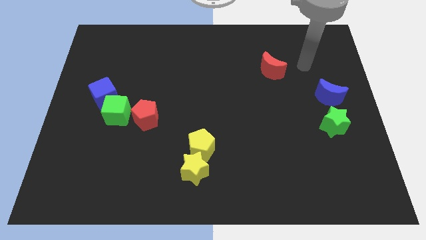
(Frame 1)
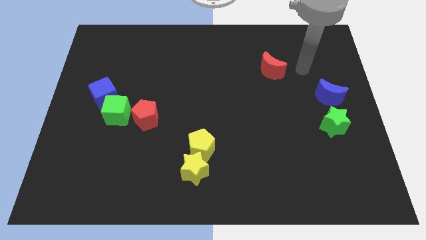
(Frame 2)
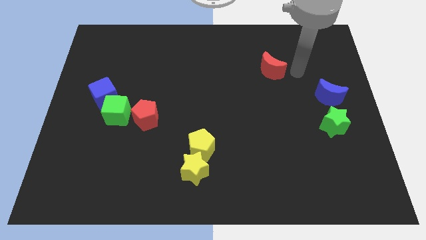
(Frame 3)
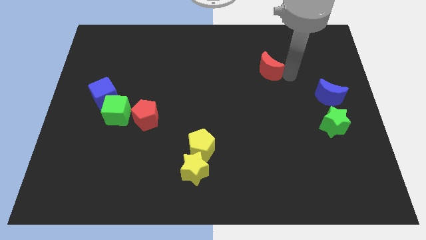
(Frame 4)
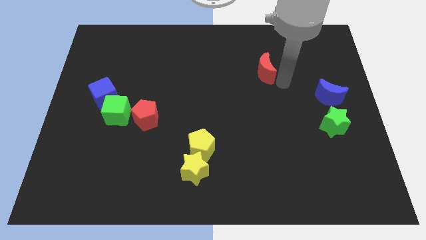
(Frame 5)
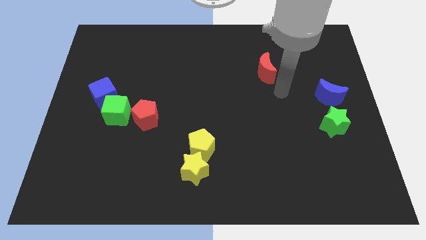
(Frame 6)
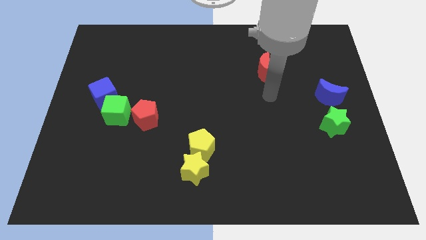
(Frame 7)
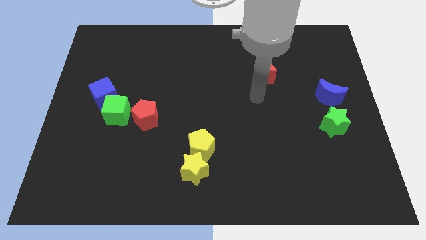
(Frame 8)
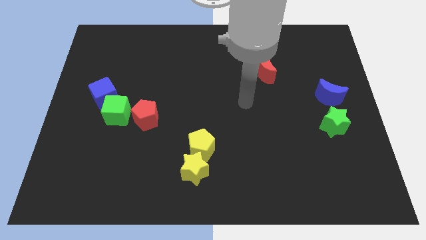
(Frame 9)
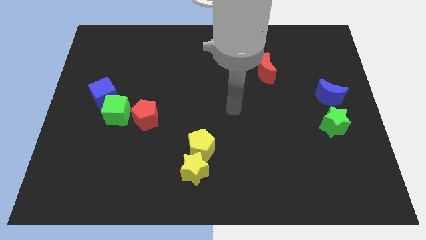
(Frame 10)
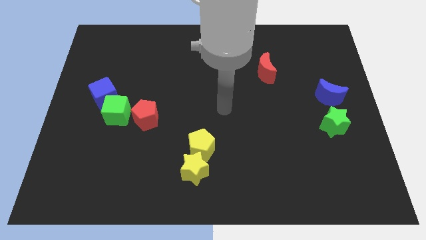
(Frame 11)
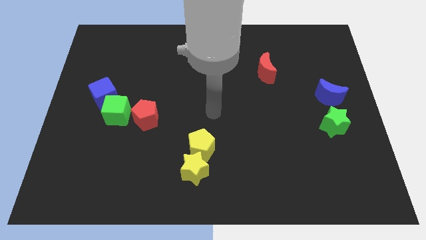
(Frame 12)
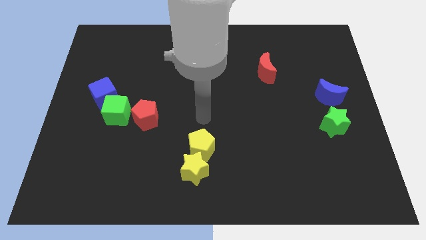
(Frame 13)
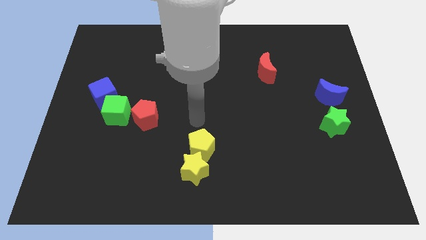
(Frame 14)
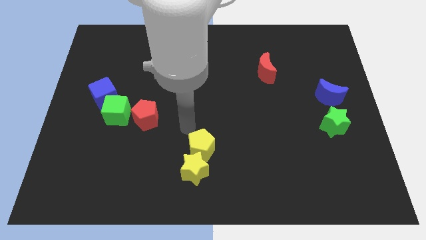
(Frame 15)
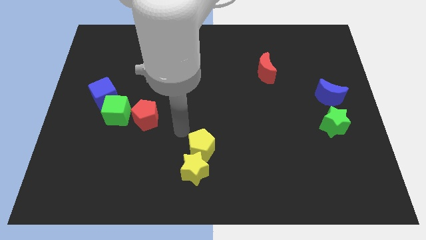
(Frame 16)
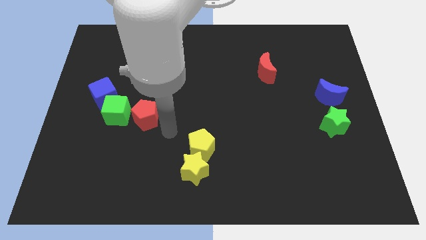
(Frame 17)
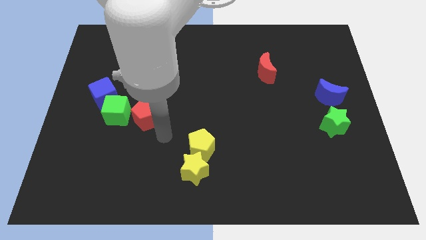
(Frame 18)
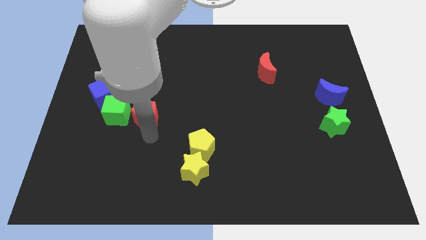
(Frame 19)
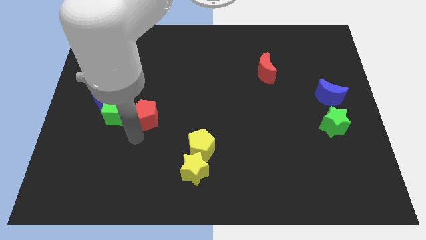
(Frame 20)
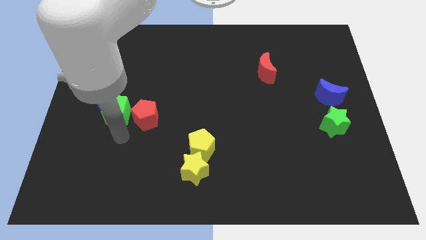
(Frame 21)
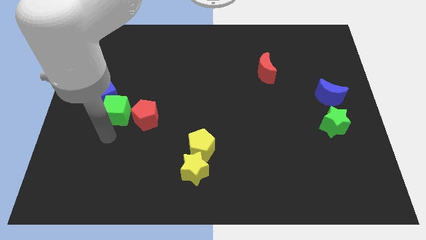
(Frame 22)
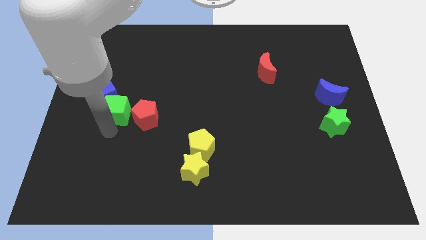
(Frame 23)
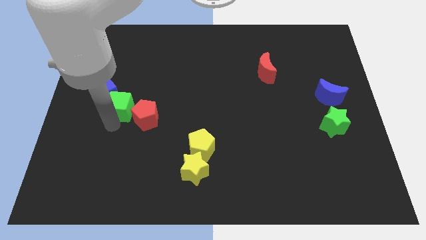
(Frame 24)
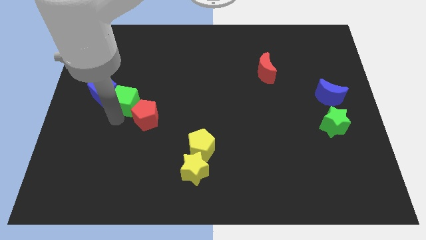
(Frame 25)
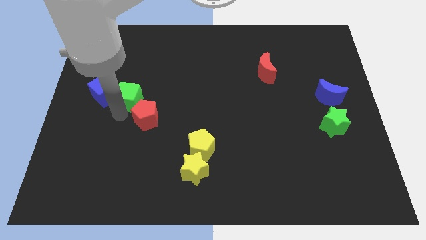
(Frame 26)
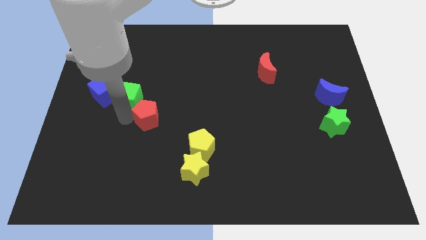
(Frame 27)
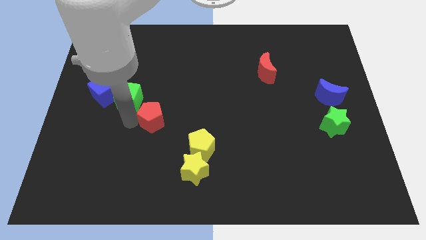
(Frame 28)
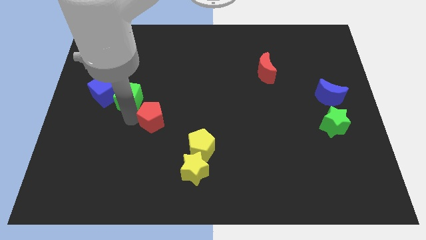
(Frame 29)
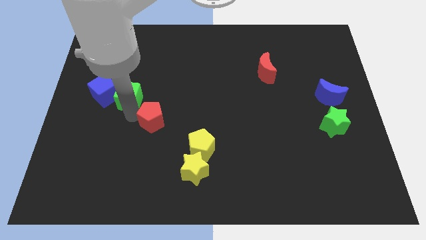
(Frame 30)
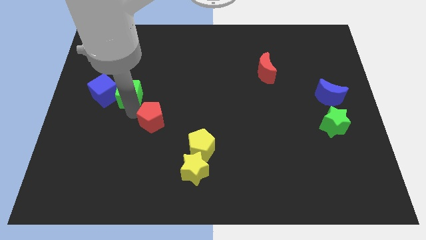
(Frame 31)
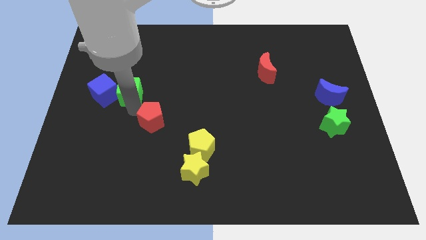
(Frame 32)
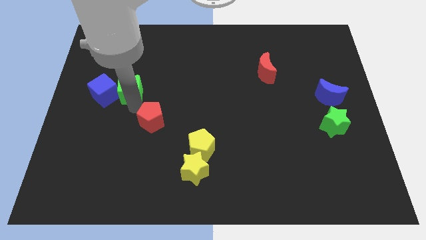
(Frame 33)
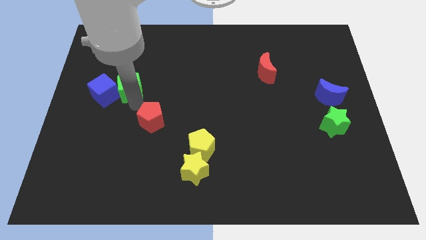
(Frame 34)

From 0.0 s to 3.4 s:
push the green cube slightly up

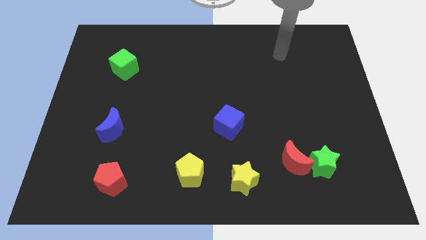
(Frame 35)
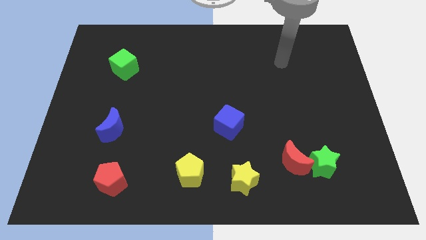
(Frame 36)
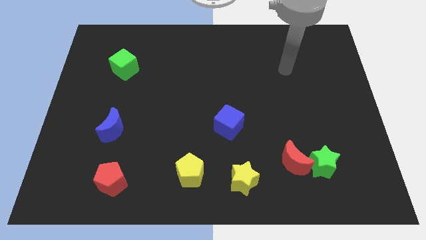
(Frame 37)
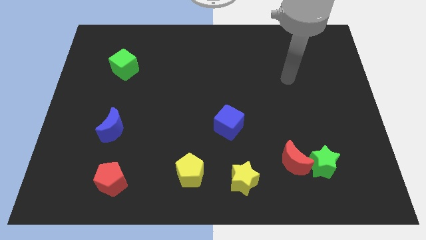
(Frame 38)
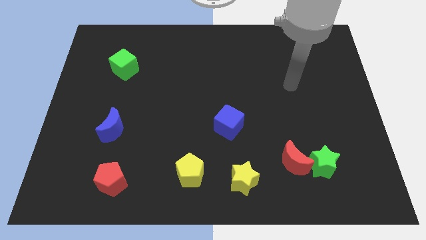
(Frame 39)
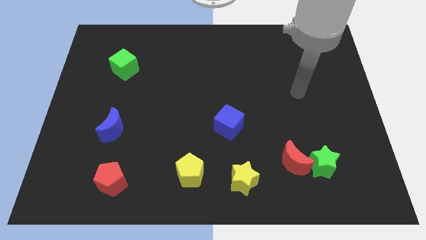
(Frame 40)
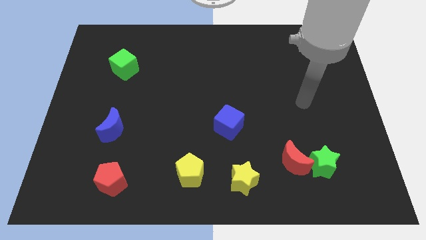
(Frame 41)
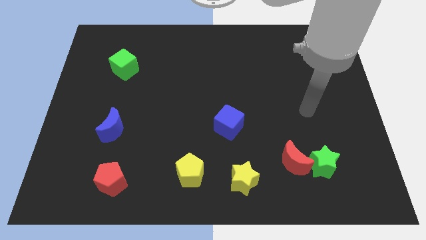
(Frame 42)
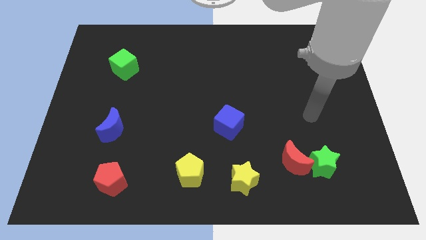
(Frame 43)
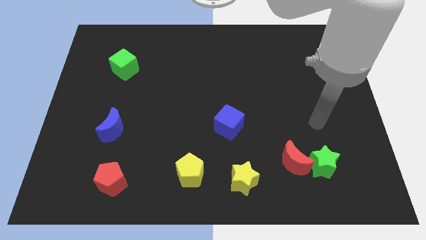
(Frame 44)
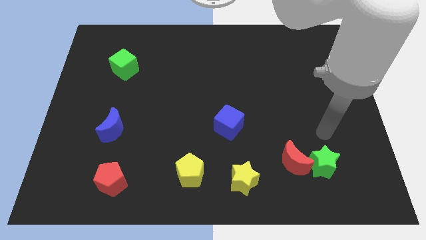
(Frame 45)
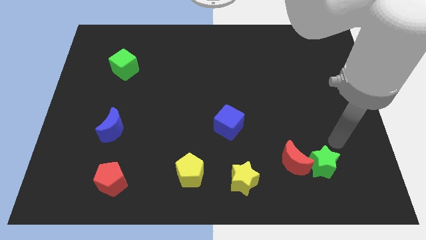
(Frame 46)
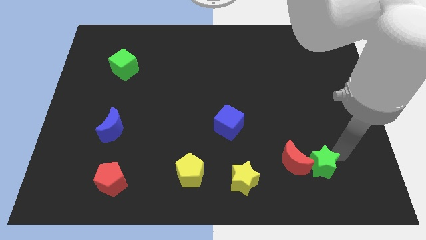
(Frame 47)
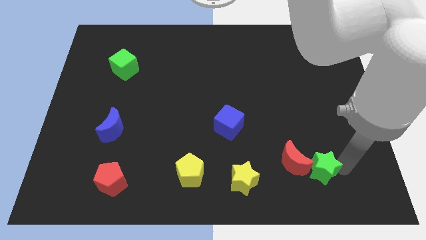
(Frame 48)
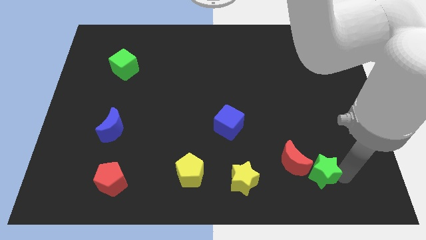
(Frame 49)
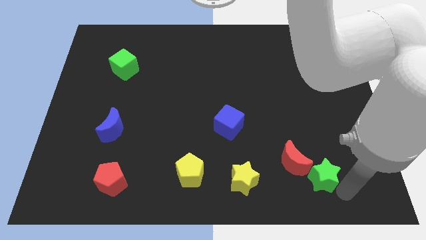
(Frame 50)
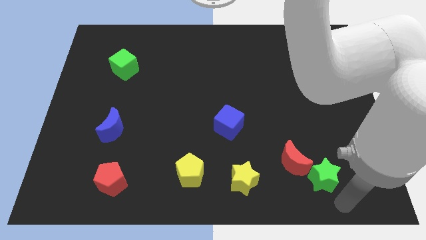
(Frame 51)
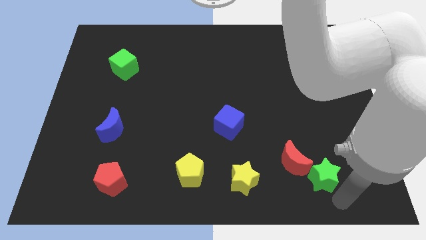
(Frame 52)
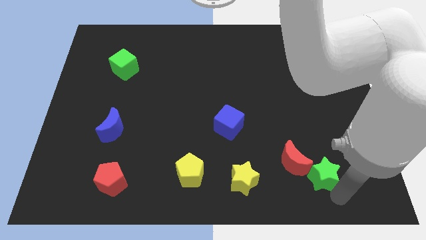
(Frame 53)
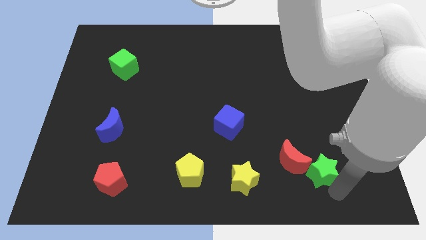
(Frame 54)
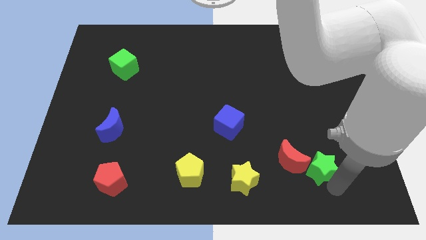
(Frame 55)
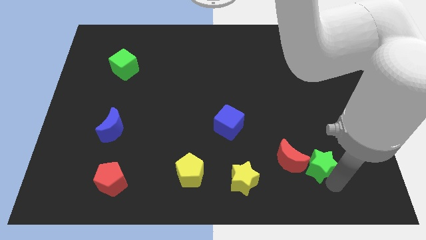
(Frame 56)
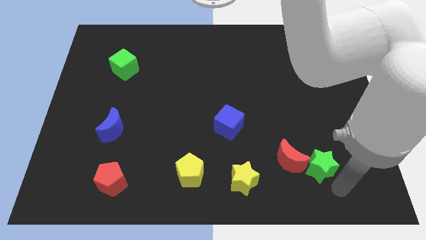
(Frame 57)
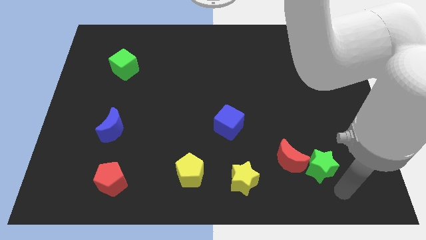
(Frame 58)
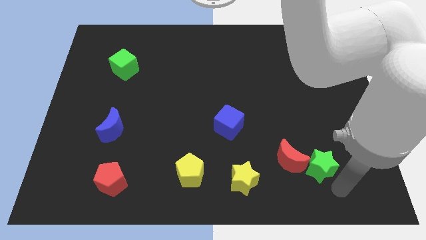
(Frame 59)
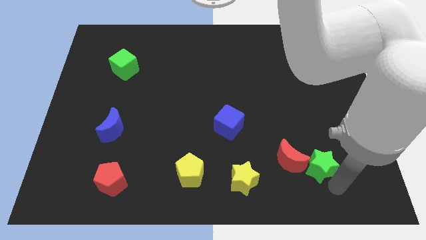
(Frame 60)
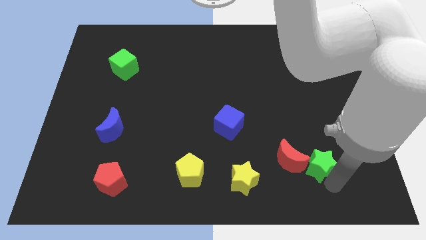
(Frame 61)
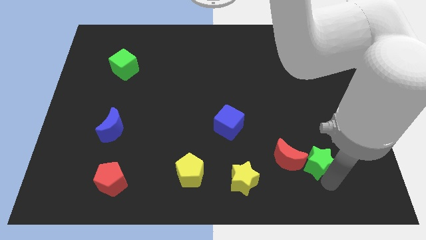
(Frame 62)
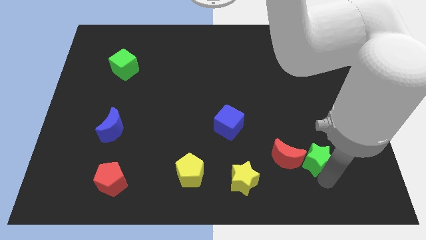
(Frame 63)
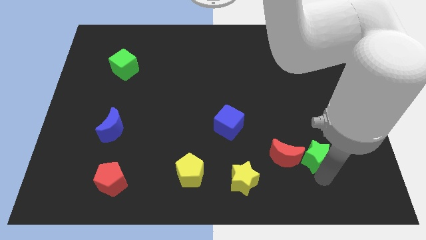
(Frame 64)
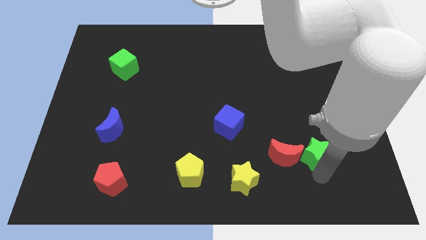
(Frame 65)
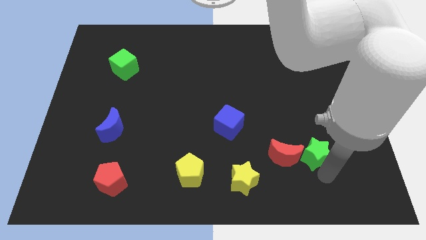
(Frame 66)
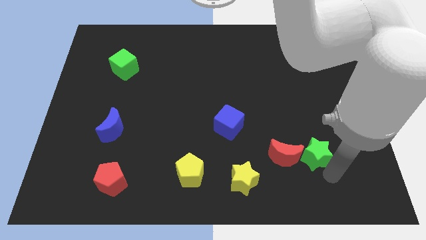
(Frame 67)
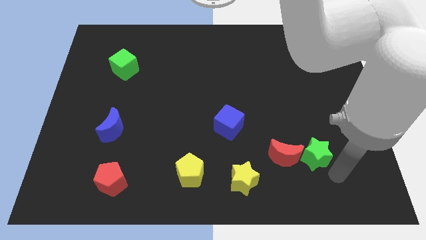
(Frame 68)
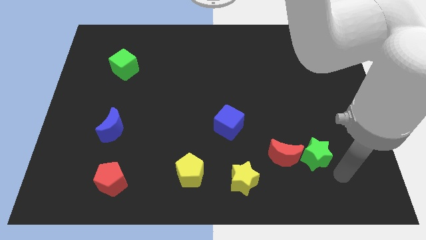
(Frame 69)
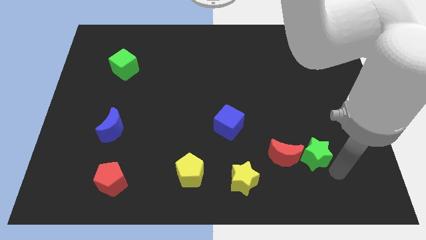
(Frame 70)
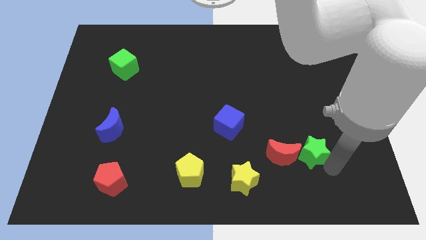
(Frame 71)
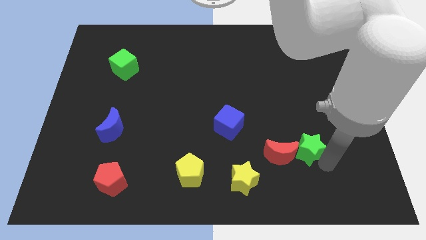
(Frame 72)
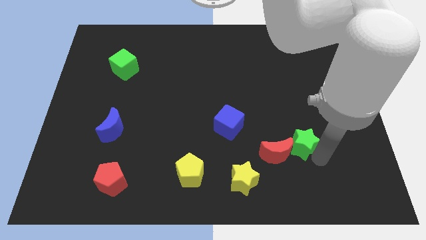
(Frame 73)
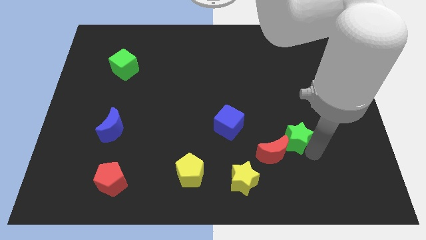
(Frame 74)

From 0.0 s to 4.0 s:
push the green star a bit up and then left

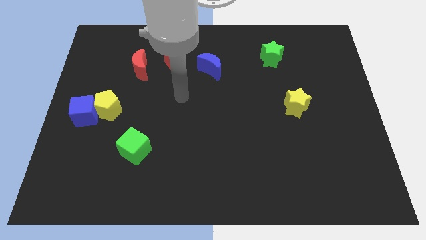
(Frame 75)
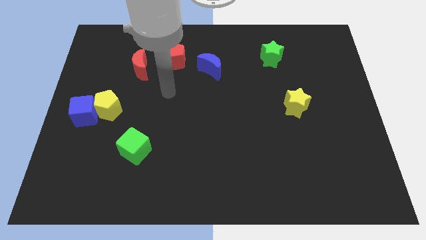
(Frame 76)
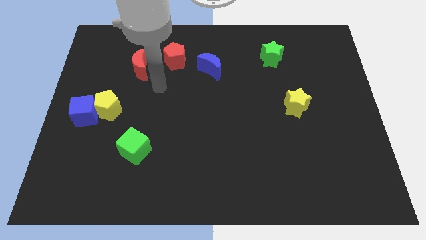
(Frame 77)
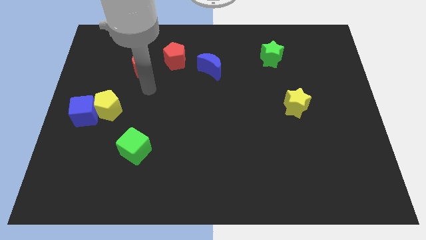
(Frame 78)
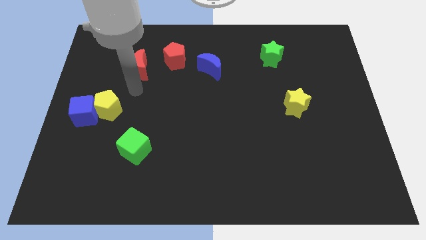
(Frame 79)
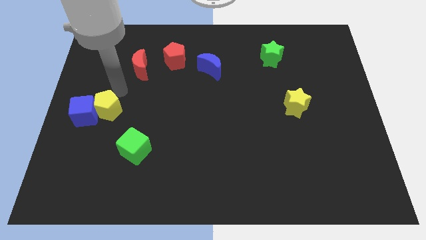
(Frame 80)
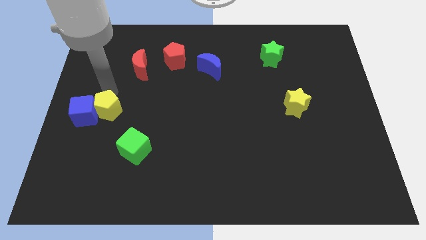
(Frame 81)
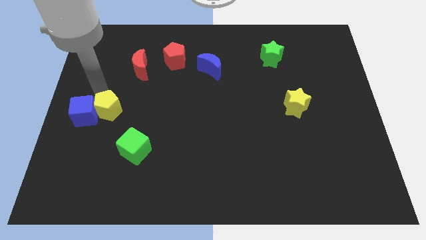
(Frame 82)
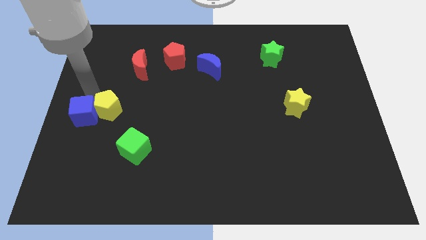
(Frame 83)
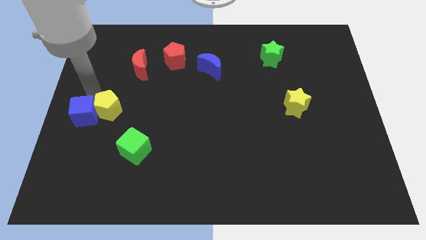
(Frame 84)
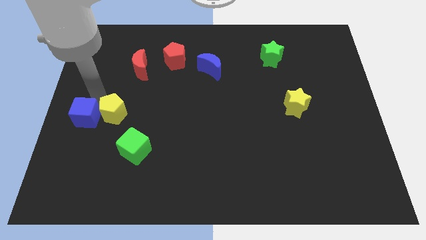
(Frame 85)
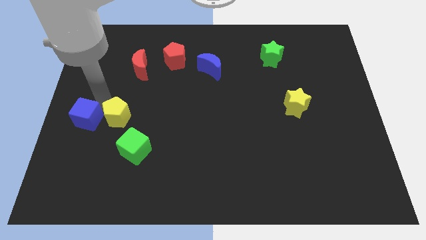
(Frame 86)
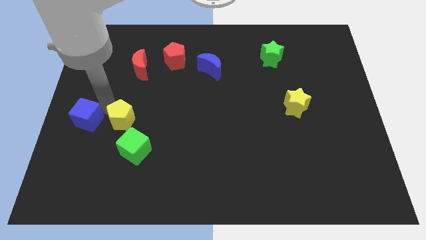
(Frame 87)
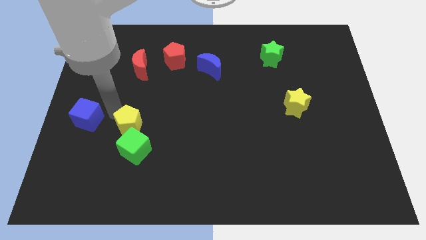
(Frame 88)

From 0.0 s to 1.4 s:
push the yellow pentagon slightly down and then to the right
